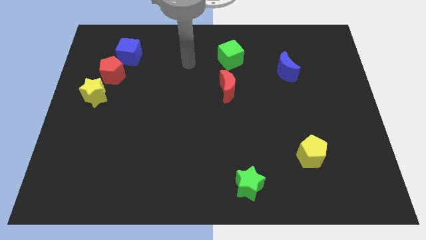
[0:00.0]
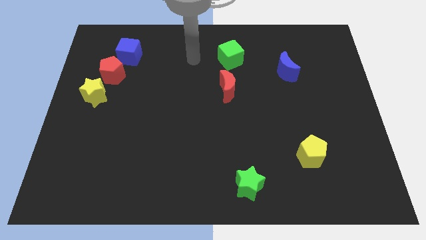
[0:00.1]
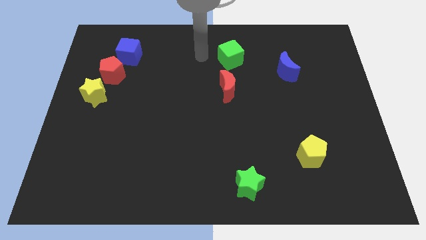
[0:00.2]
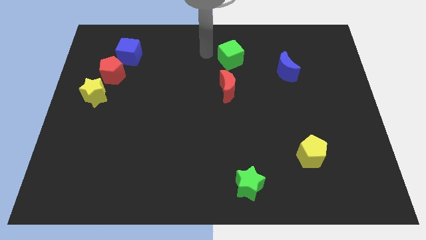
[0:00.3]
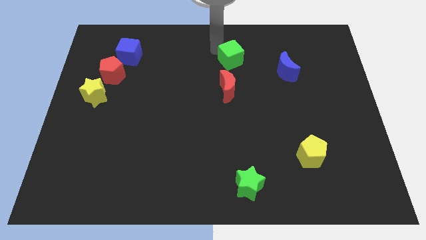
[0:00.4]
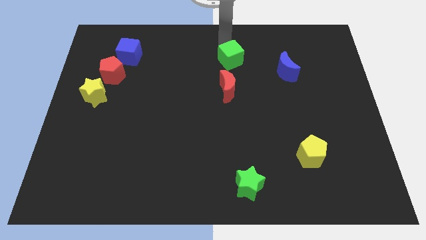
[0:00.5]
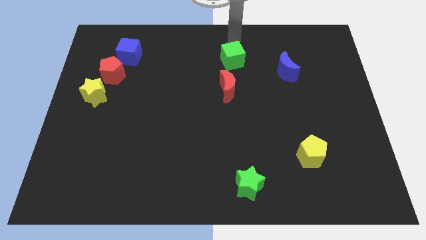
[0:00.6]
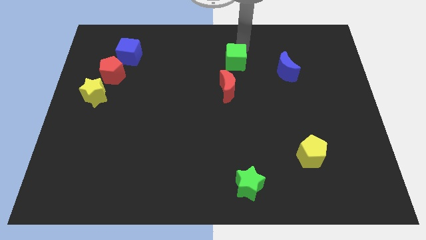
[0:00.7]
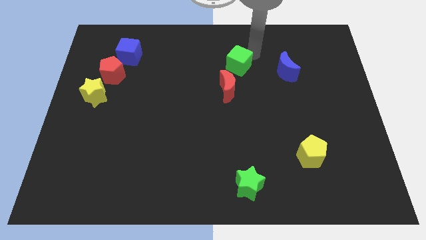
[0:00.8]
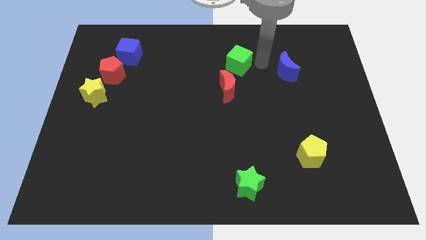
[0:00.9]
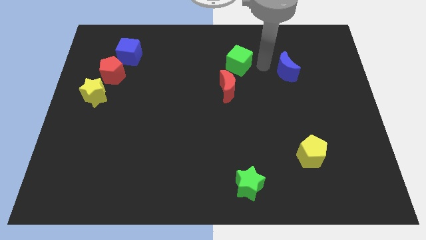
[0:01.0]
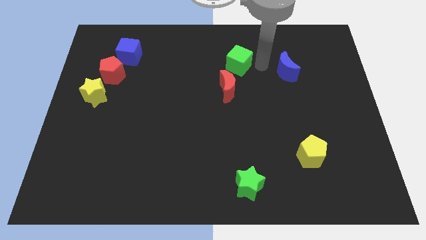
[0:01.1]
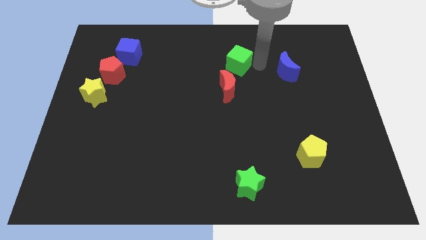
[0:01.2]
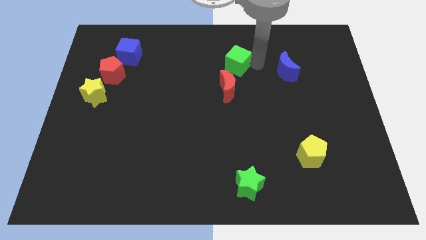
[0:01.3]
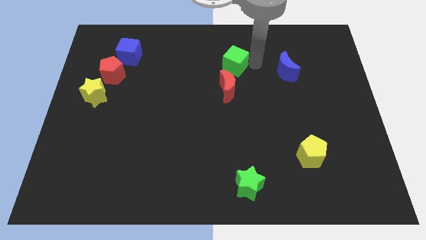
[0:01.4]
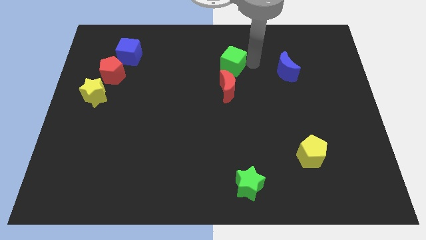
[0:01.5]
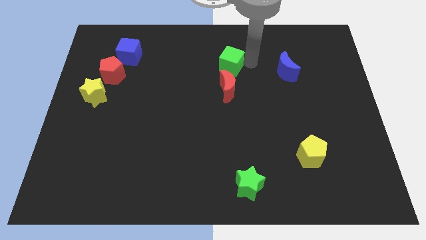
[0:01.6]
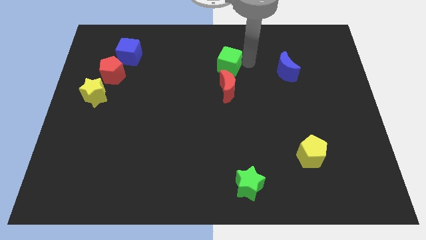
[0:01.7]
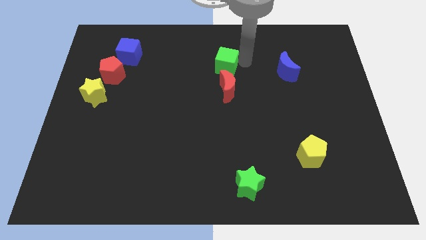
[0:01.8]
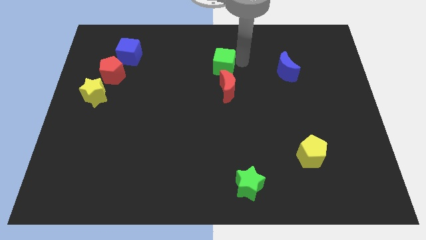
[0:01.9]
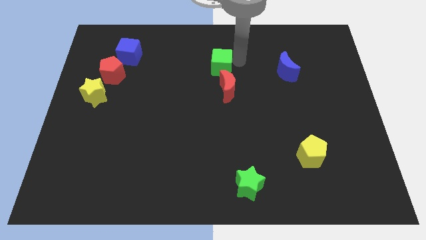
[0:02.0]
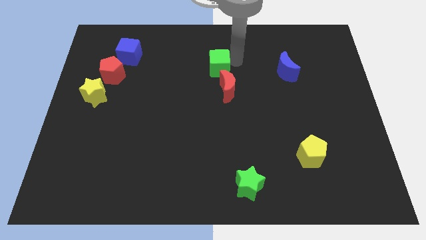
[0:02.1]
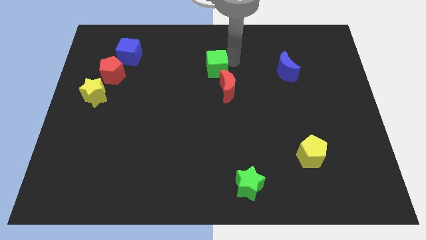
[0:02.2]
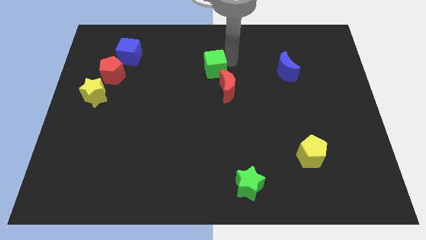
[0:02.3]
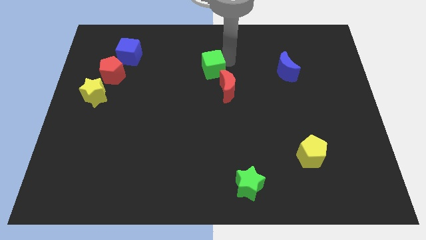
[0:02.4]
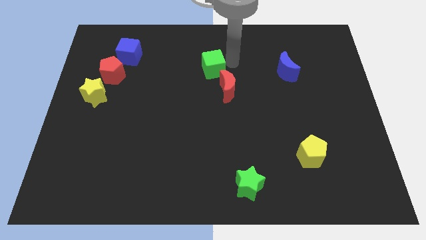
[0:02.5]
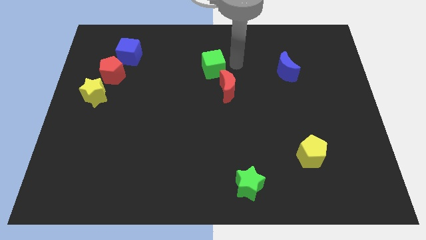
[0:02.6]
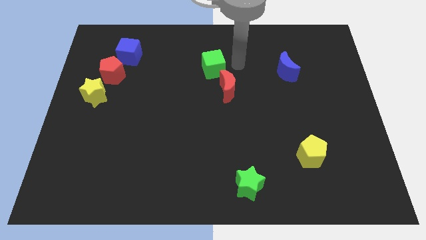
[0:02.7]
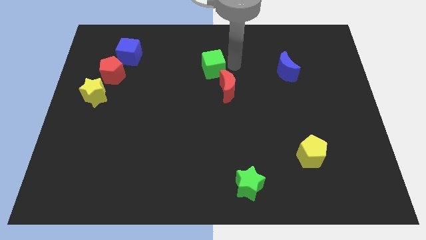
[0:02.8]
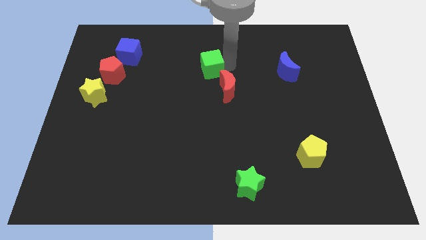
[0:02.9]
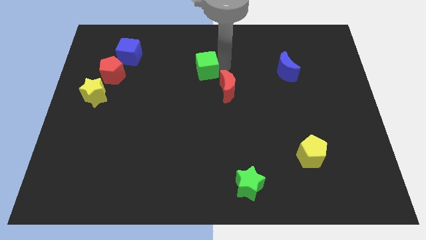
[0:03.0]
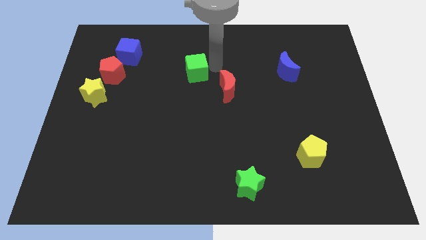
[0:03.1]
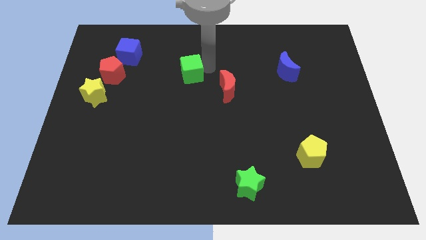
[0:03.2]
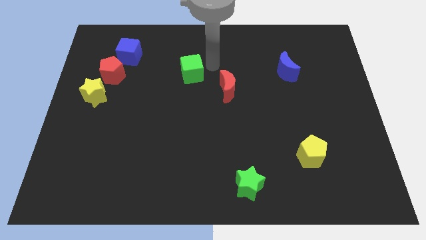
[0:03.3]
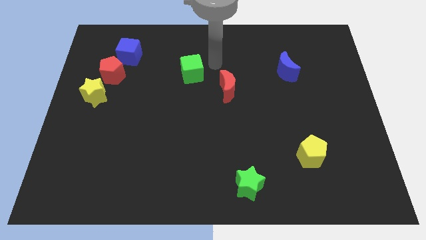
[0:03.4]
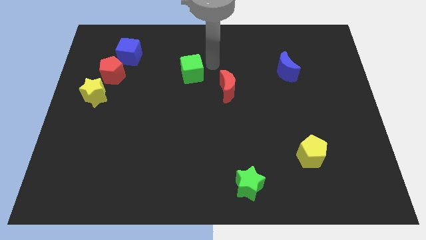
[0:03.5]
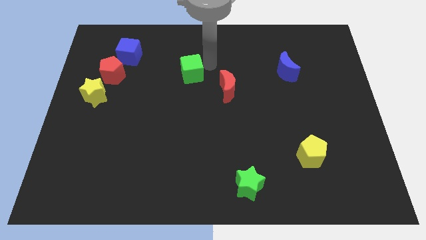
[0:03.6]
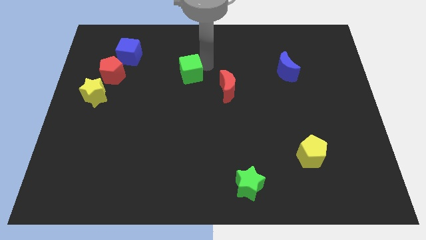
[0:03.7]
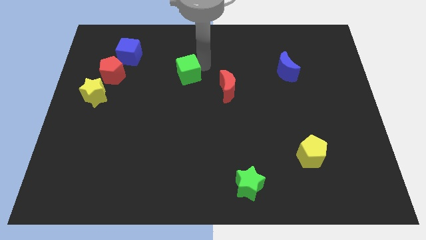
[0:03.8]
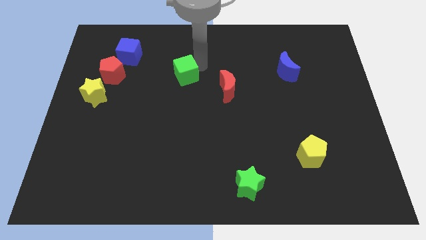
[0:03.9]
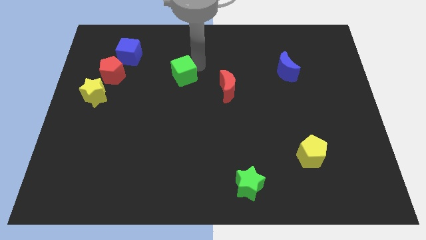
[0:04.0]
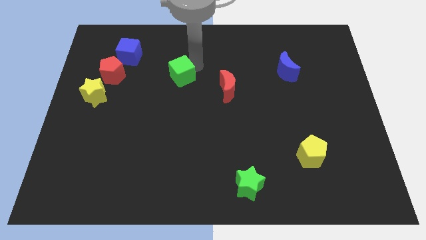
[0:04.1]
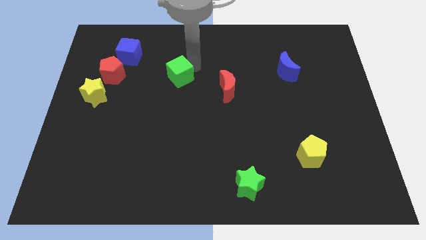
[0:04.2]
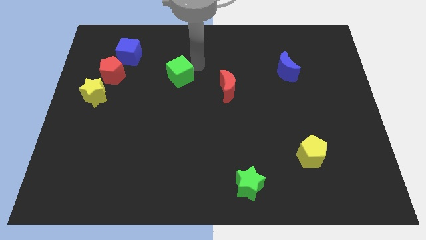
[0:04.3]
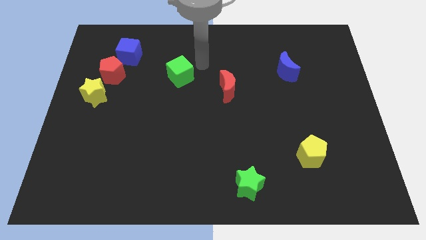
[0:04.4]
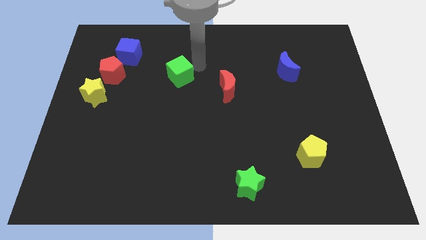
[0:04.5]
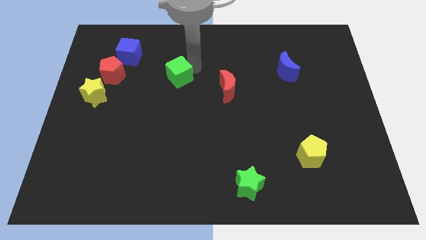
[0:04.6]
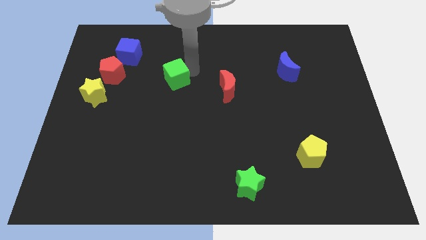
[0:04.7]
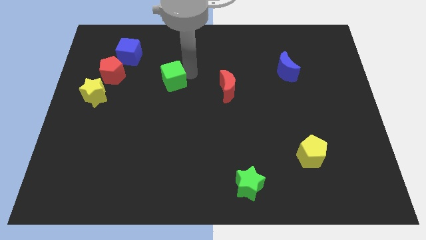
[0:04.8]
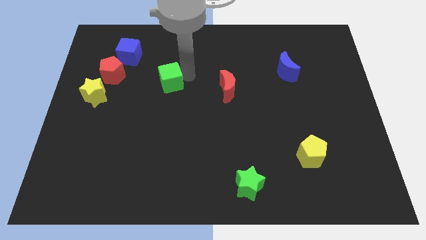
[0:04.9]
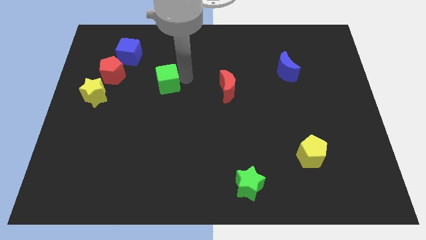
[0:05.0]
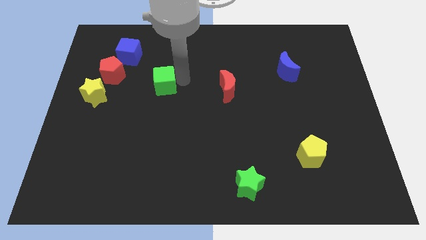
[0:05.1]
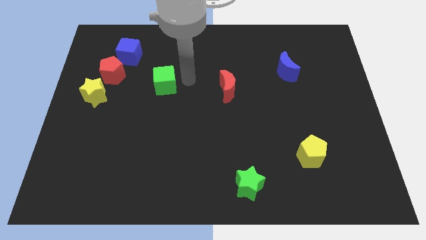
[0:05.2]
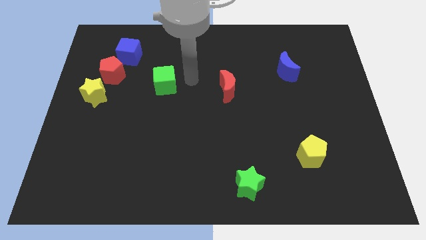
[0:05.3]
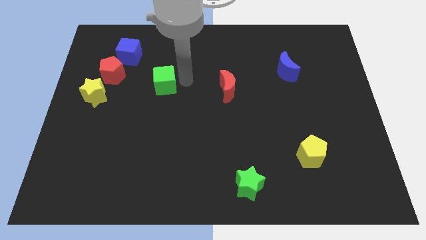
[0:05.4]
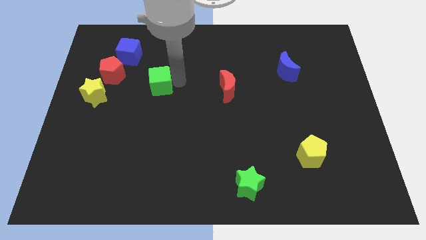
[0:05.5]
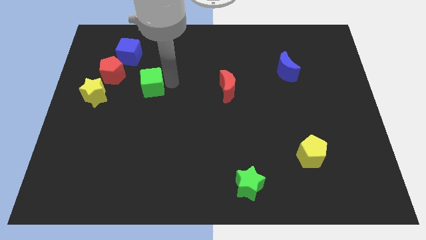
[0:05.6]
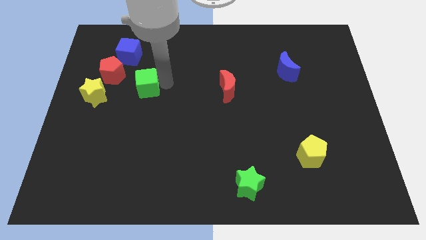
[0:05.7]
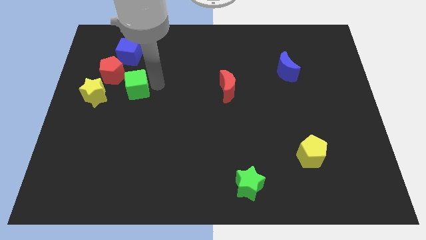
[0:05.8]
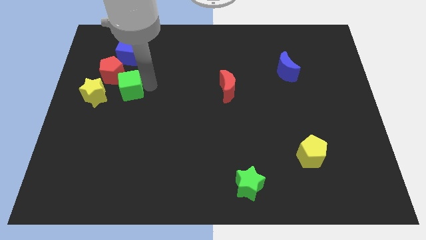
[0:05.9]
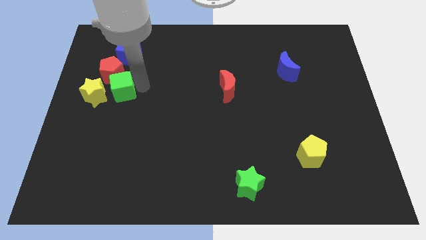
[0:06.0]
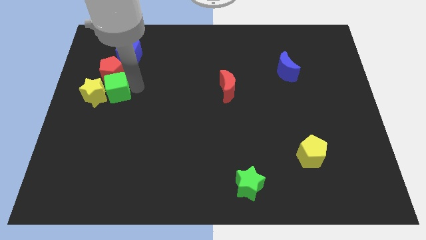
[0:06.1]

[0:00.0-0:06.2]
put the green cube next to the yellow star

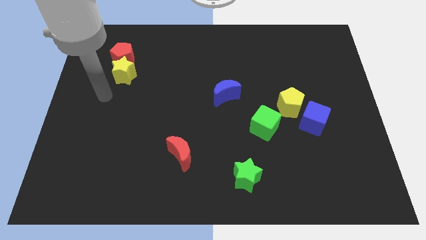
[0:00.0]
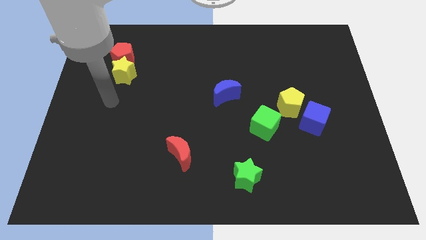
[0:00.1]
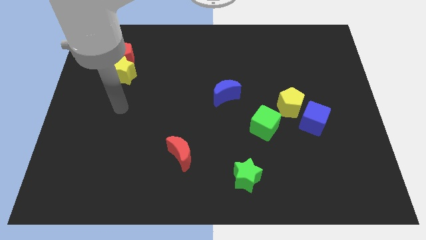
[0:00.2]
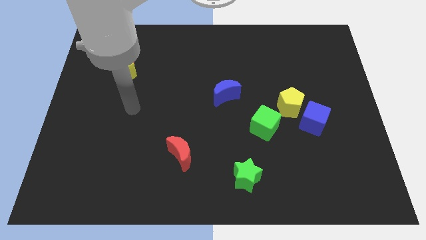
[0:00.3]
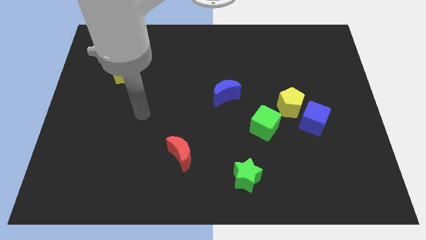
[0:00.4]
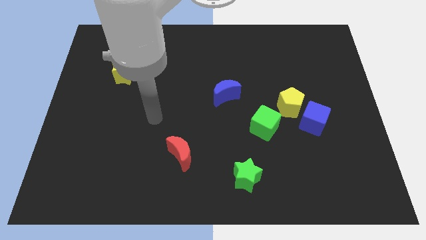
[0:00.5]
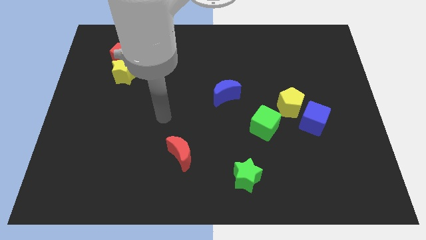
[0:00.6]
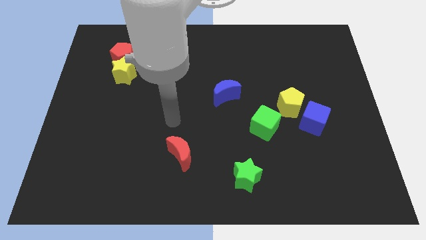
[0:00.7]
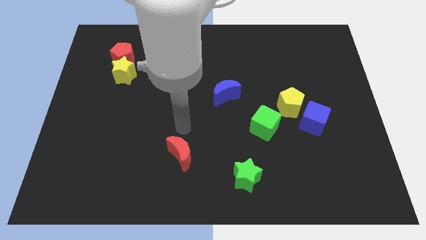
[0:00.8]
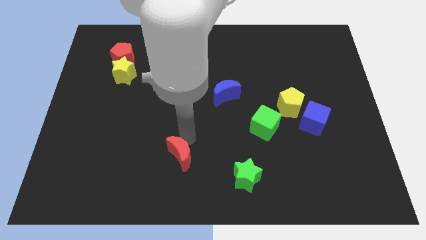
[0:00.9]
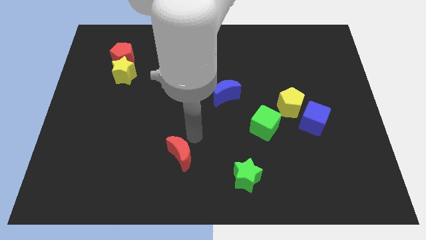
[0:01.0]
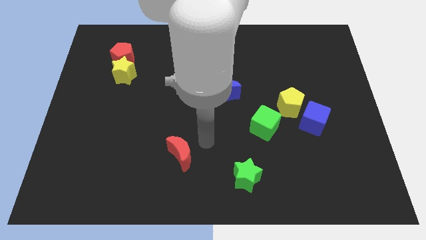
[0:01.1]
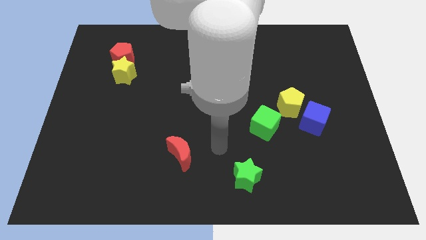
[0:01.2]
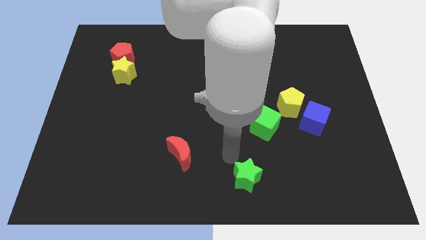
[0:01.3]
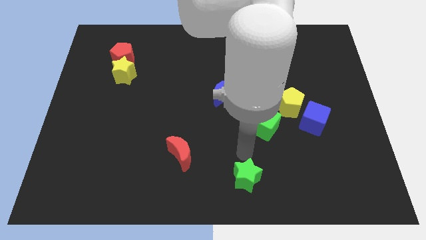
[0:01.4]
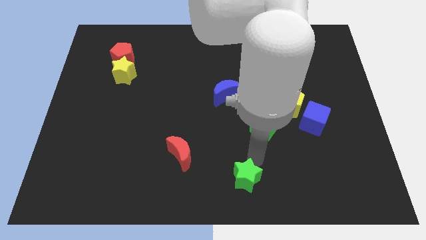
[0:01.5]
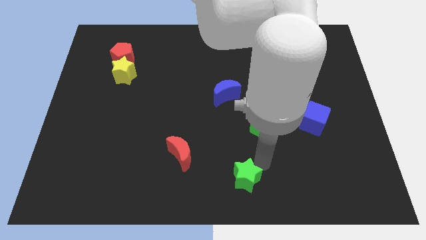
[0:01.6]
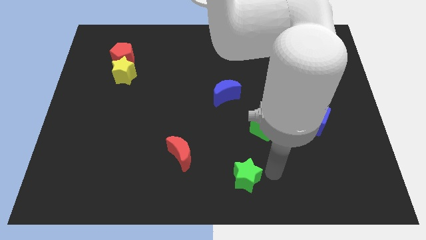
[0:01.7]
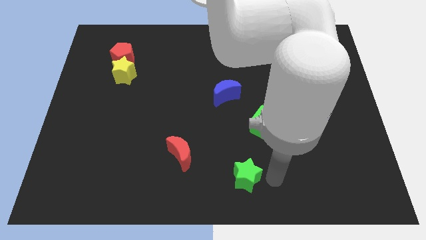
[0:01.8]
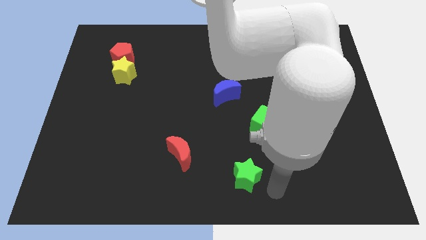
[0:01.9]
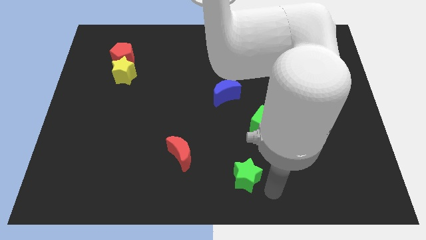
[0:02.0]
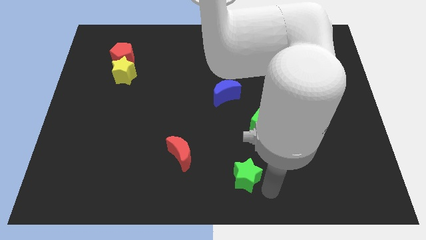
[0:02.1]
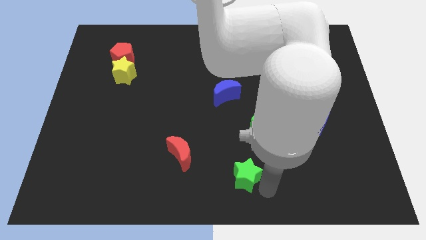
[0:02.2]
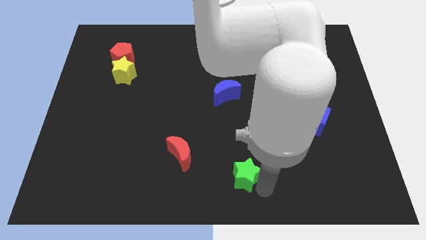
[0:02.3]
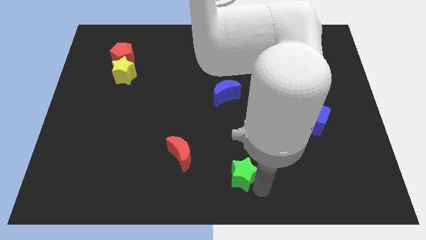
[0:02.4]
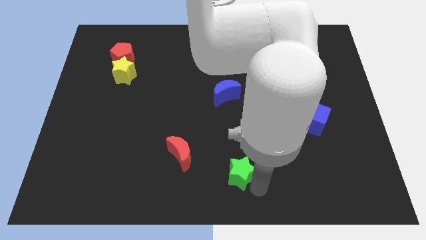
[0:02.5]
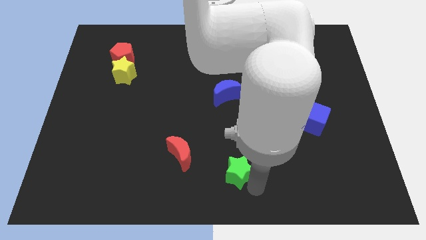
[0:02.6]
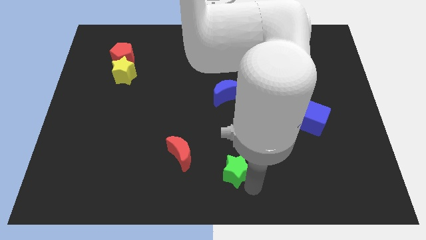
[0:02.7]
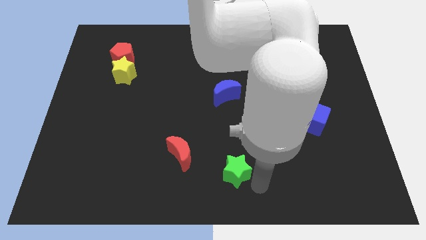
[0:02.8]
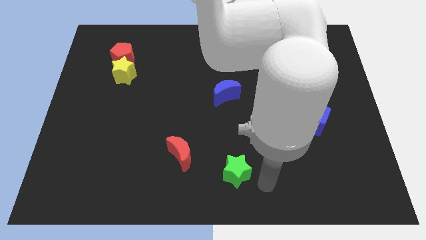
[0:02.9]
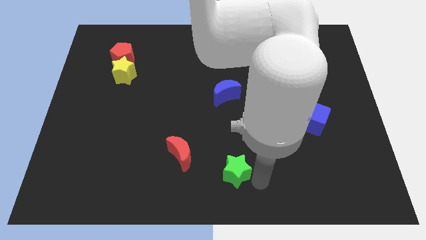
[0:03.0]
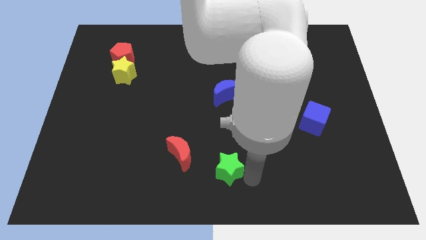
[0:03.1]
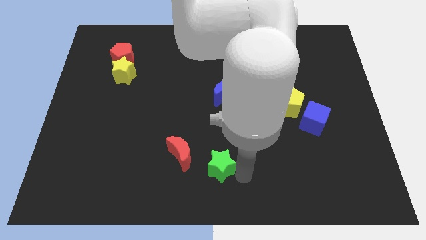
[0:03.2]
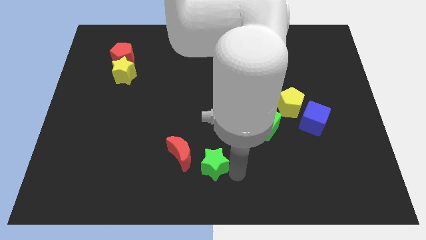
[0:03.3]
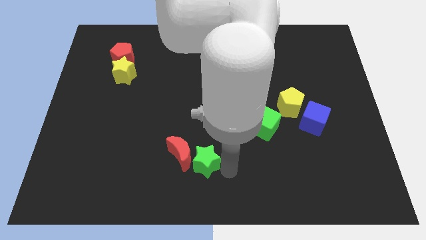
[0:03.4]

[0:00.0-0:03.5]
slide the green star close to the red moon
